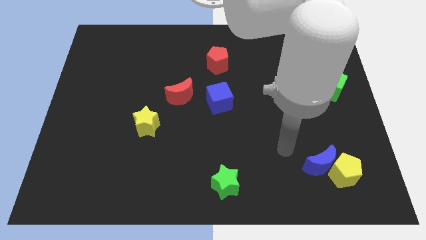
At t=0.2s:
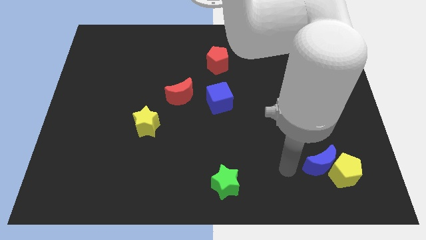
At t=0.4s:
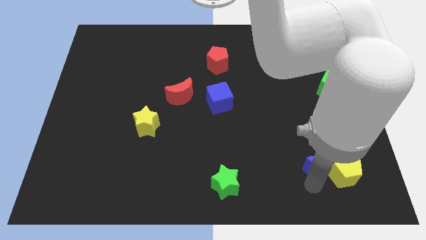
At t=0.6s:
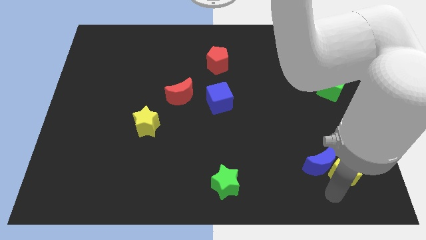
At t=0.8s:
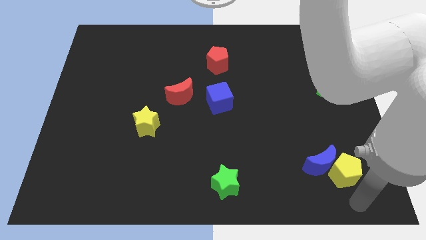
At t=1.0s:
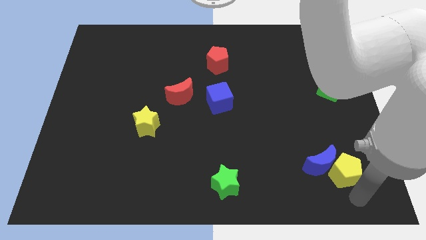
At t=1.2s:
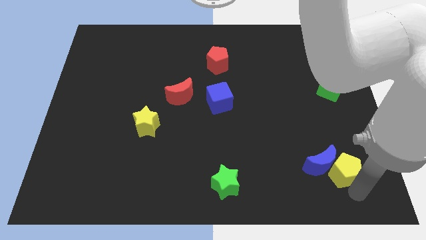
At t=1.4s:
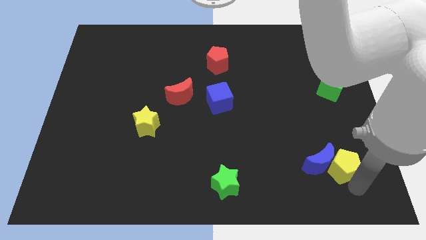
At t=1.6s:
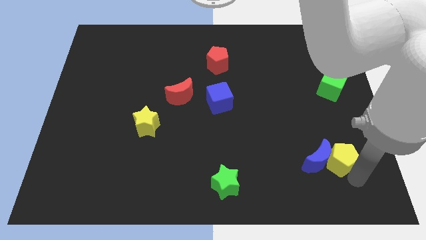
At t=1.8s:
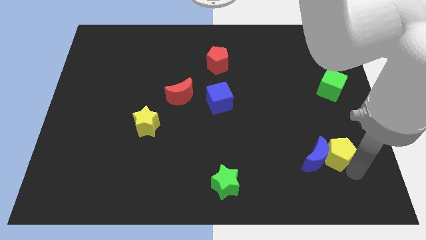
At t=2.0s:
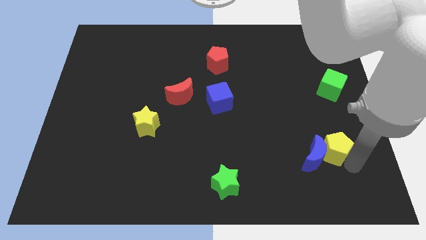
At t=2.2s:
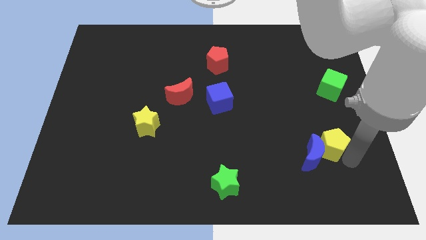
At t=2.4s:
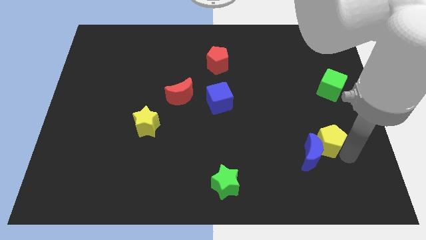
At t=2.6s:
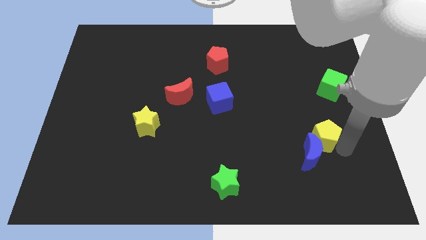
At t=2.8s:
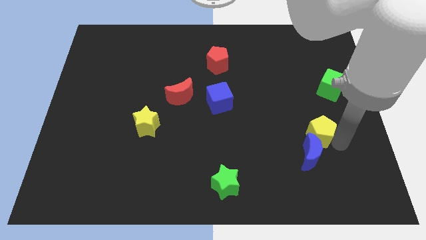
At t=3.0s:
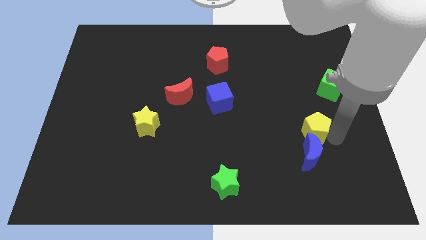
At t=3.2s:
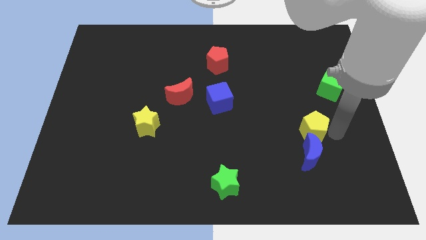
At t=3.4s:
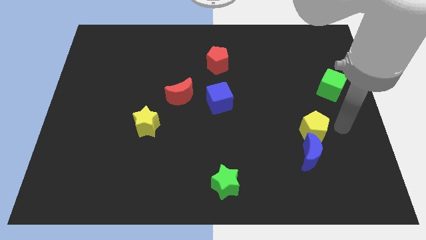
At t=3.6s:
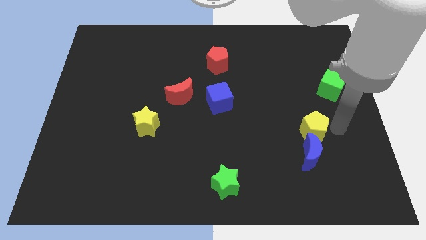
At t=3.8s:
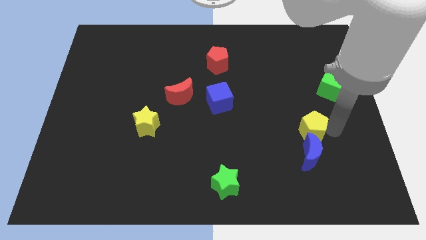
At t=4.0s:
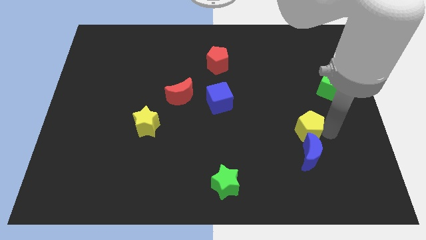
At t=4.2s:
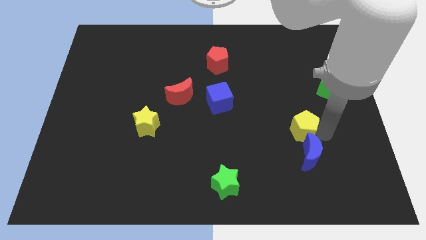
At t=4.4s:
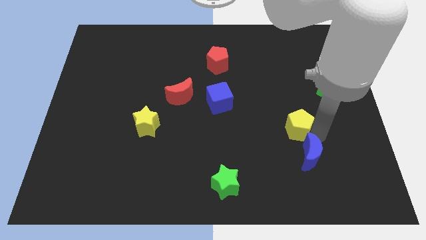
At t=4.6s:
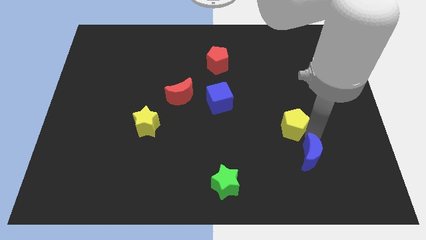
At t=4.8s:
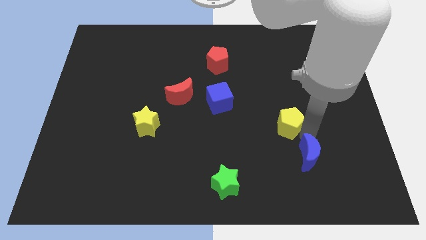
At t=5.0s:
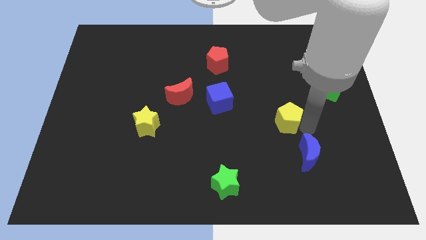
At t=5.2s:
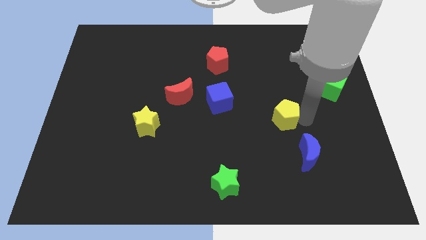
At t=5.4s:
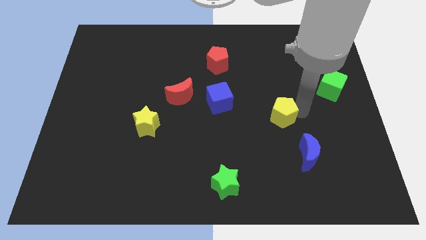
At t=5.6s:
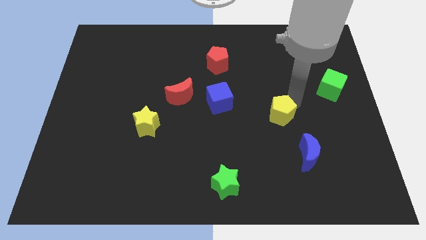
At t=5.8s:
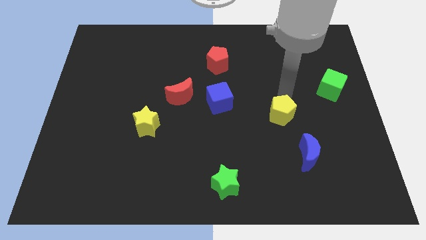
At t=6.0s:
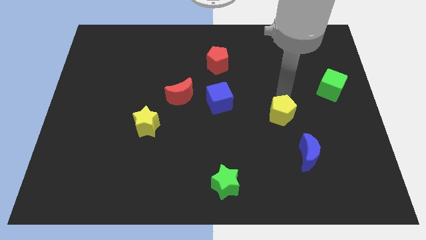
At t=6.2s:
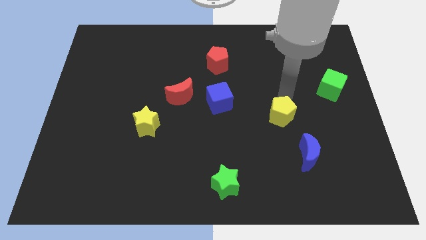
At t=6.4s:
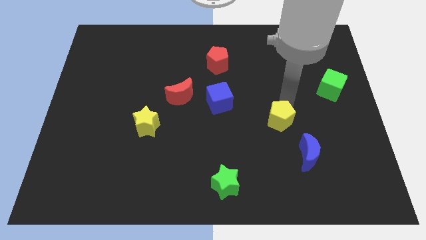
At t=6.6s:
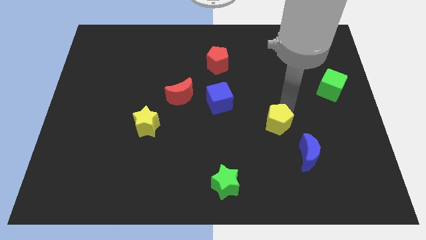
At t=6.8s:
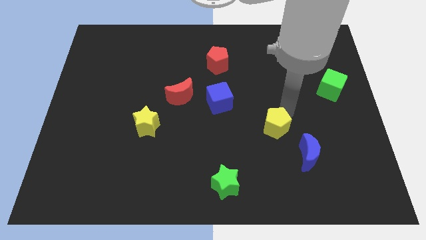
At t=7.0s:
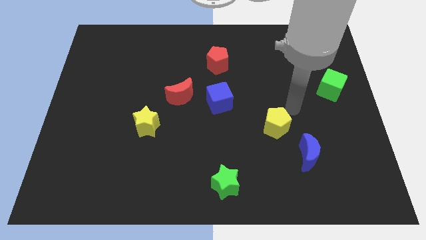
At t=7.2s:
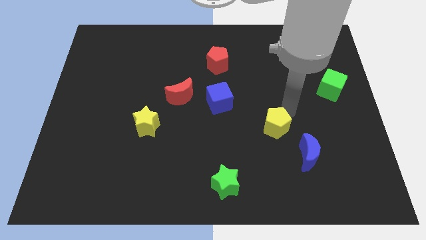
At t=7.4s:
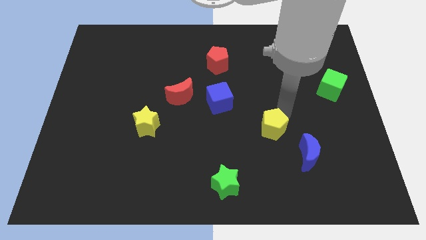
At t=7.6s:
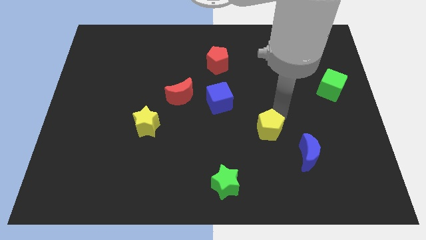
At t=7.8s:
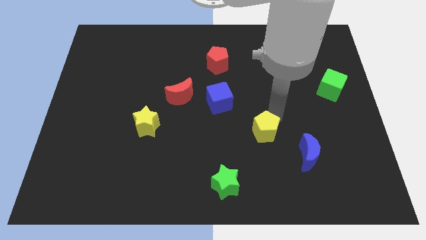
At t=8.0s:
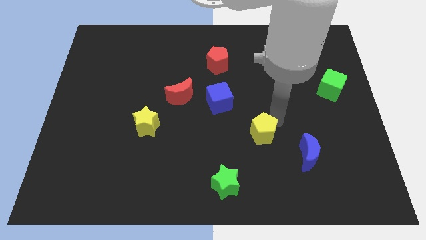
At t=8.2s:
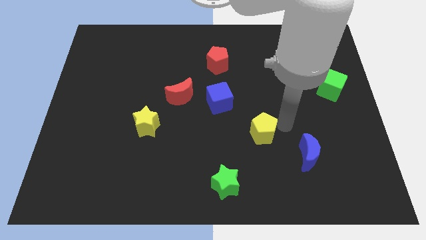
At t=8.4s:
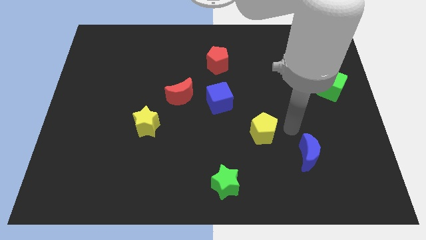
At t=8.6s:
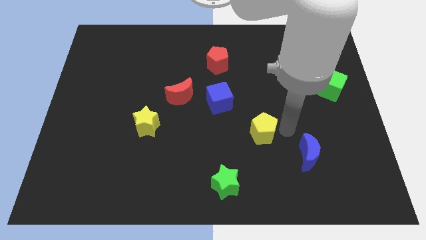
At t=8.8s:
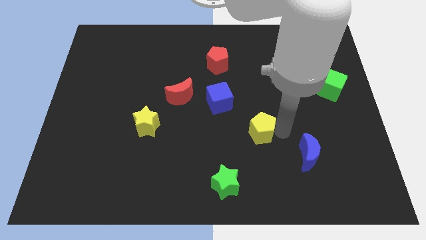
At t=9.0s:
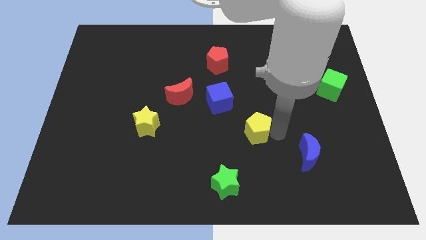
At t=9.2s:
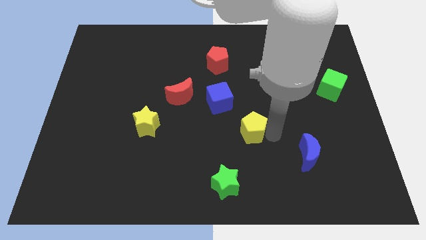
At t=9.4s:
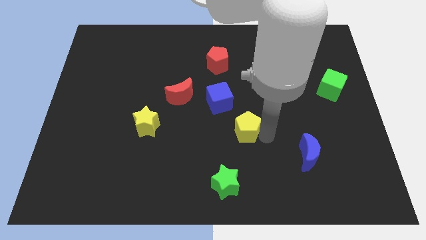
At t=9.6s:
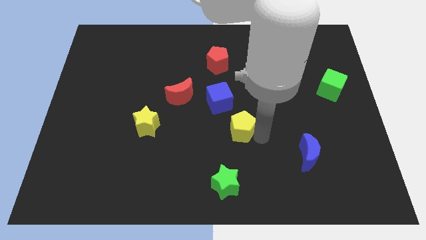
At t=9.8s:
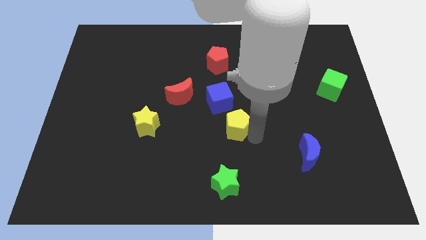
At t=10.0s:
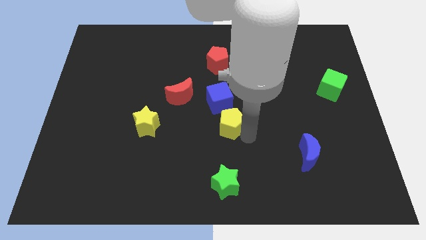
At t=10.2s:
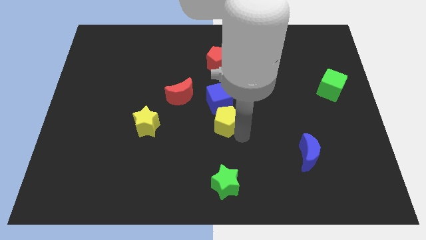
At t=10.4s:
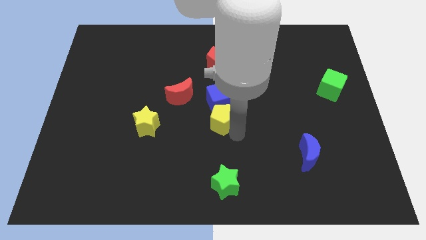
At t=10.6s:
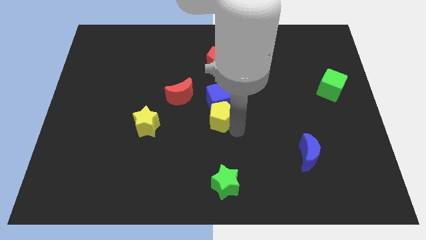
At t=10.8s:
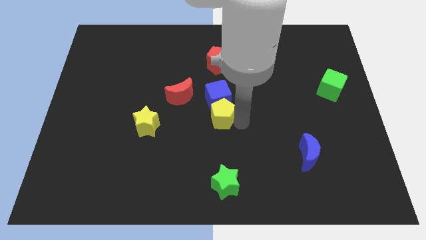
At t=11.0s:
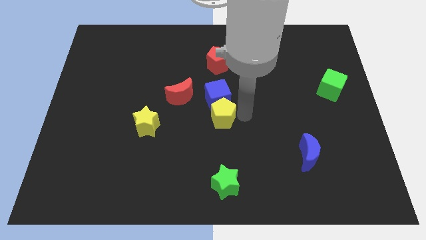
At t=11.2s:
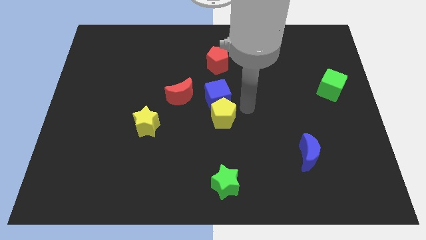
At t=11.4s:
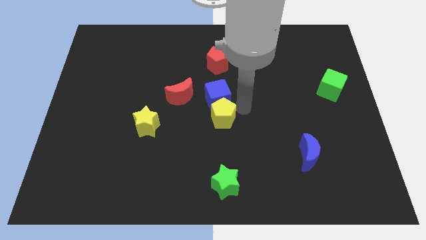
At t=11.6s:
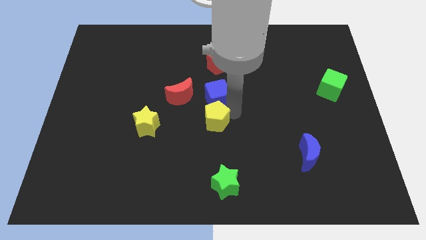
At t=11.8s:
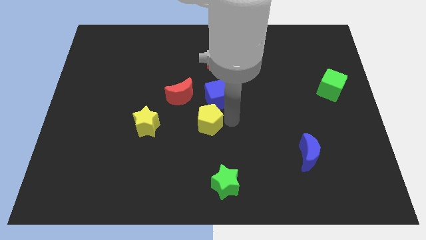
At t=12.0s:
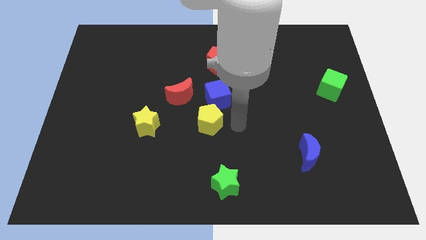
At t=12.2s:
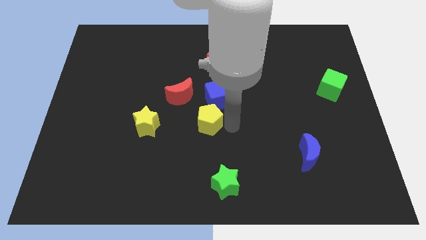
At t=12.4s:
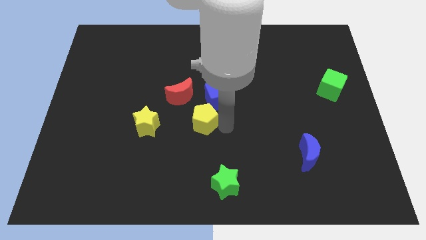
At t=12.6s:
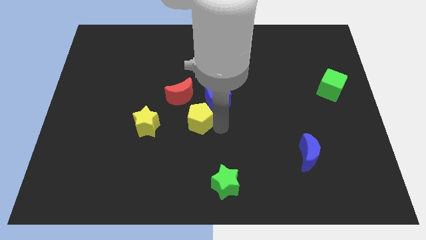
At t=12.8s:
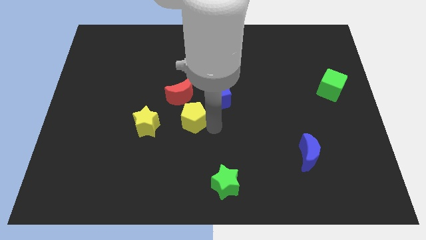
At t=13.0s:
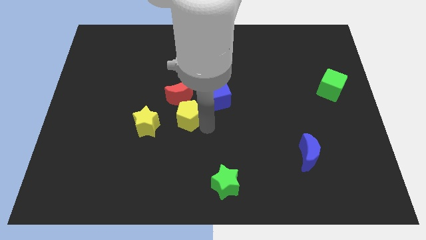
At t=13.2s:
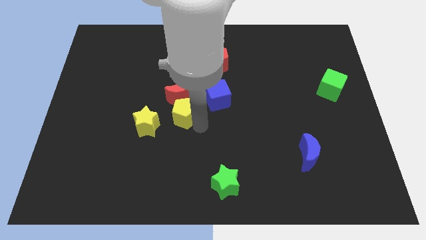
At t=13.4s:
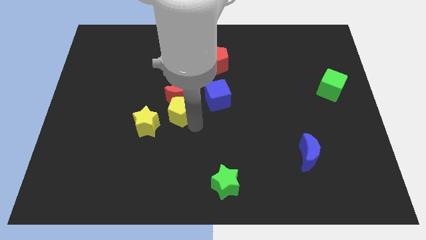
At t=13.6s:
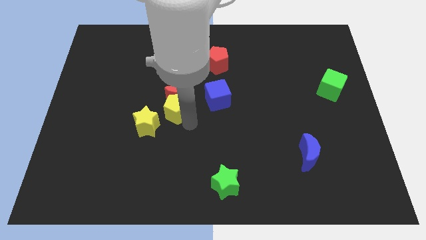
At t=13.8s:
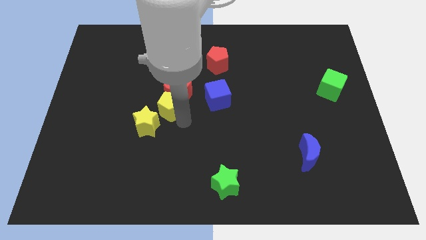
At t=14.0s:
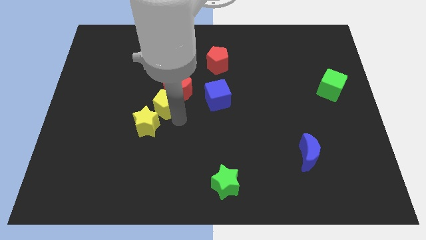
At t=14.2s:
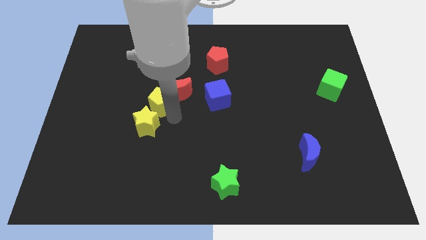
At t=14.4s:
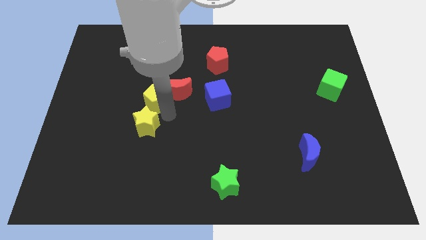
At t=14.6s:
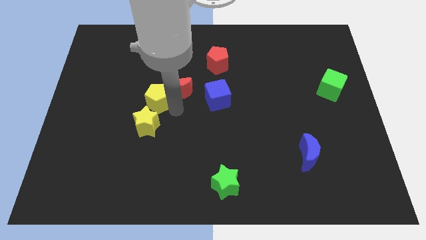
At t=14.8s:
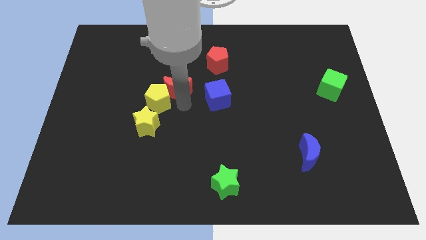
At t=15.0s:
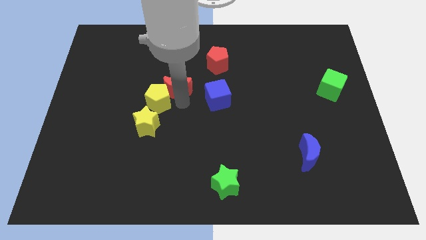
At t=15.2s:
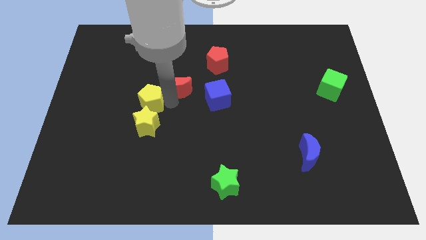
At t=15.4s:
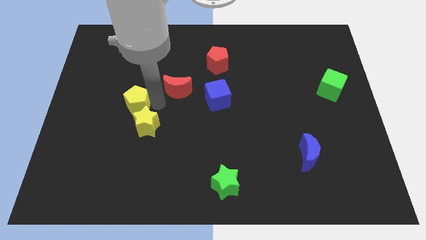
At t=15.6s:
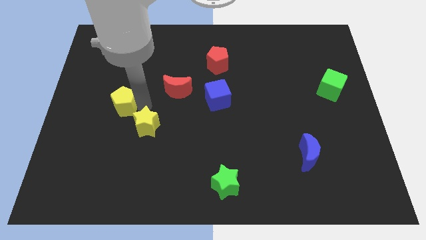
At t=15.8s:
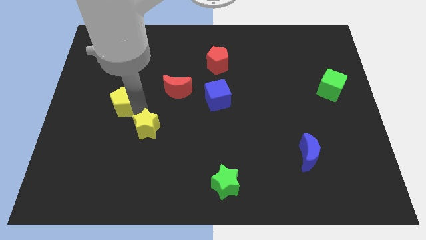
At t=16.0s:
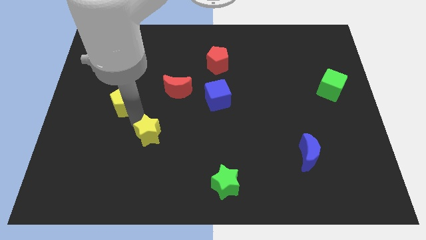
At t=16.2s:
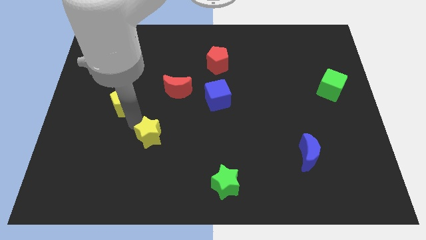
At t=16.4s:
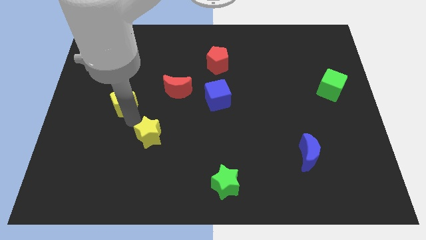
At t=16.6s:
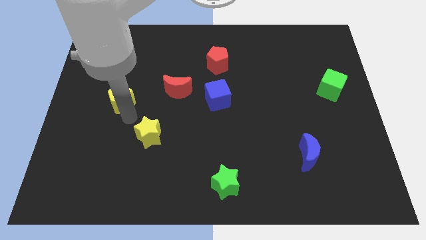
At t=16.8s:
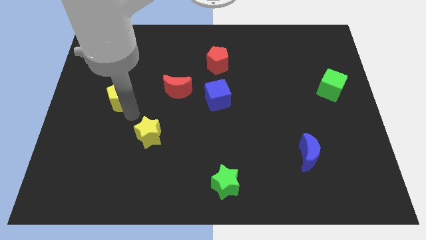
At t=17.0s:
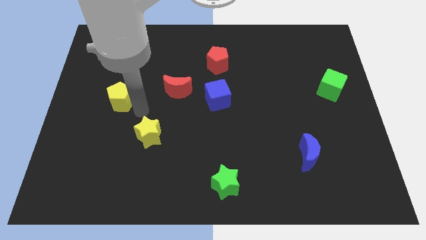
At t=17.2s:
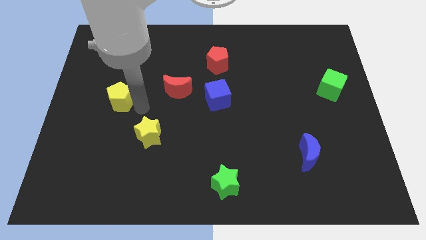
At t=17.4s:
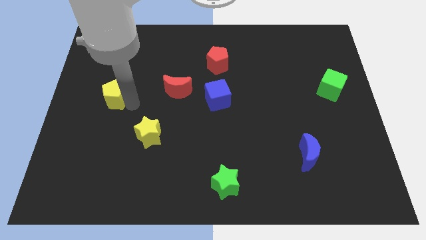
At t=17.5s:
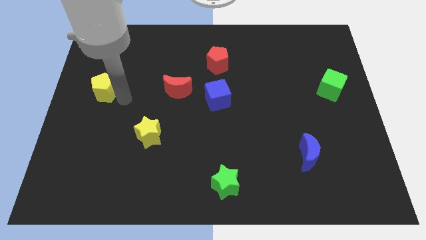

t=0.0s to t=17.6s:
slide the yellow pentagon to the left side
